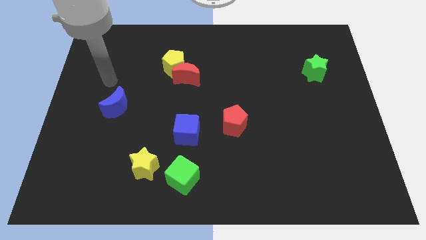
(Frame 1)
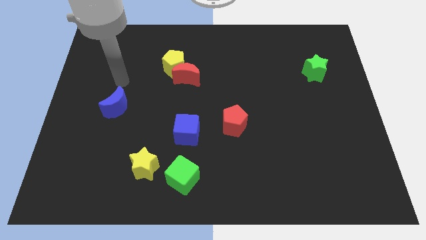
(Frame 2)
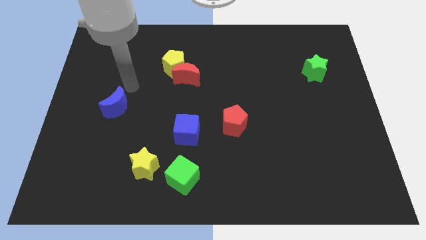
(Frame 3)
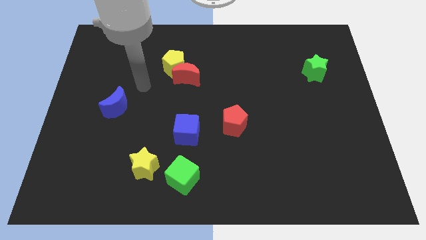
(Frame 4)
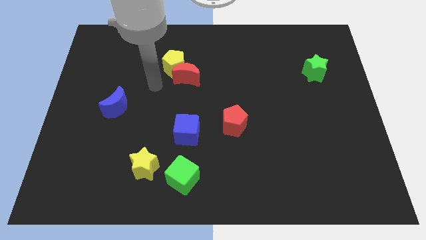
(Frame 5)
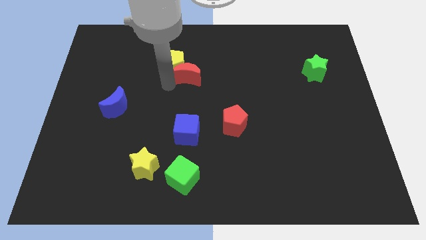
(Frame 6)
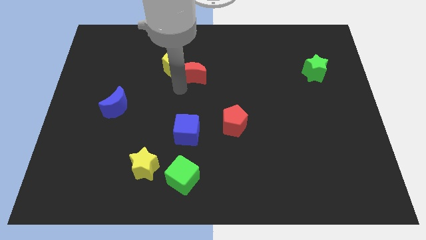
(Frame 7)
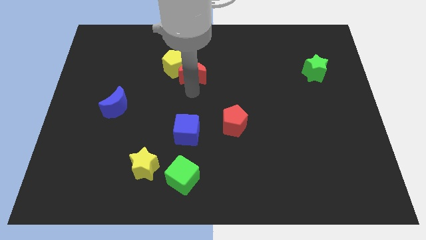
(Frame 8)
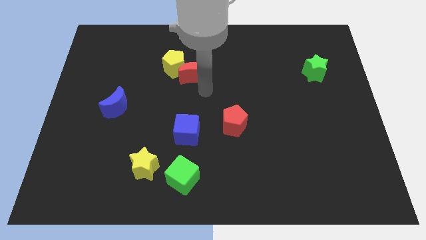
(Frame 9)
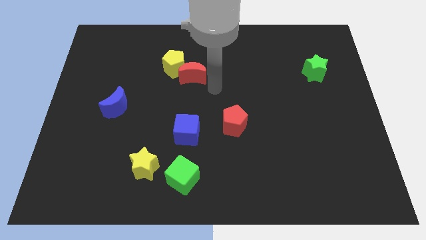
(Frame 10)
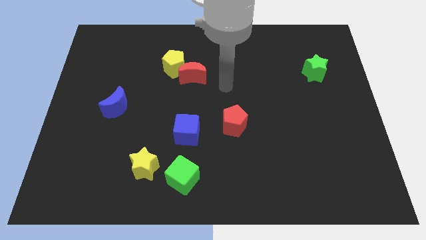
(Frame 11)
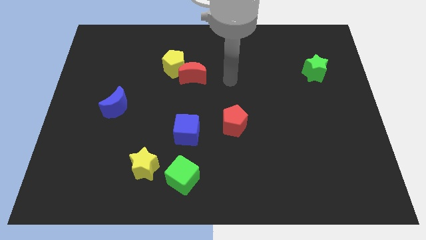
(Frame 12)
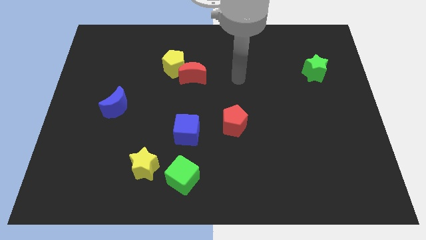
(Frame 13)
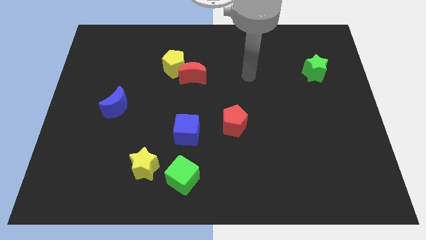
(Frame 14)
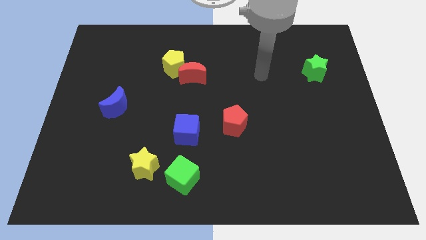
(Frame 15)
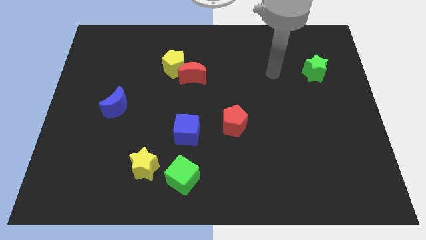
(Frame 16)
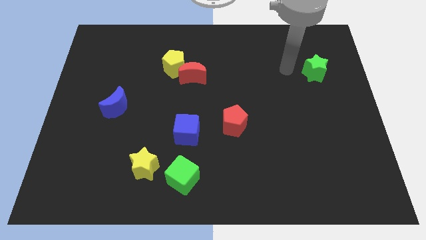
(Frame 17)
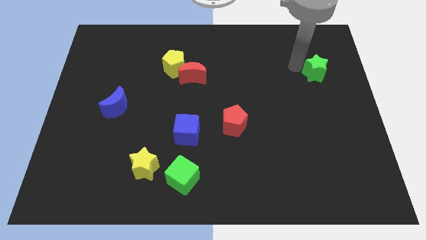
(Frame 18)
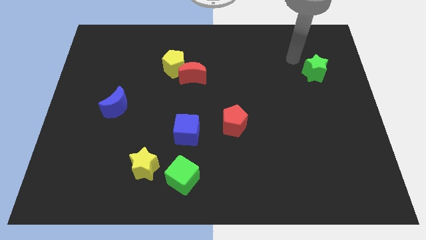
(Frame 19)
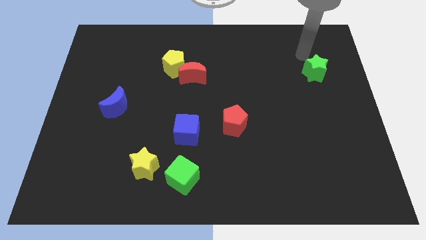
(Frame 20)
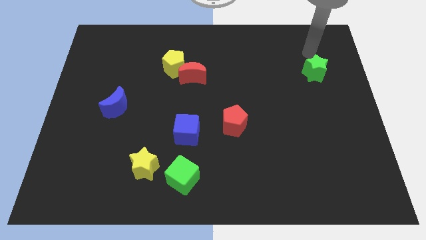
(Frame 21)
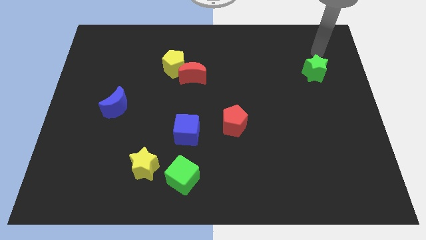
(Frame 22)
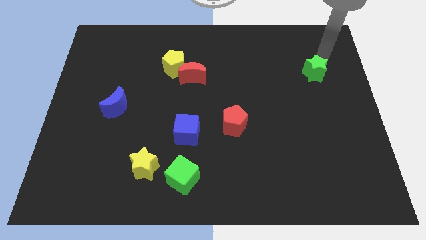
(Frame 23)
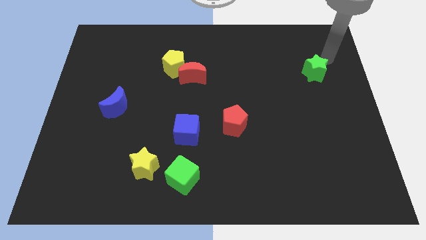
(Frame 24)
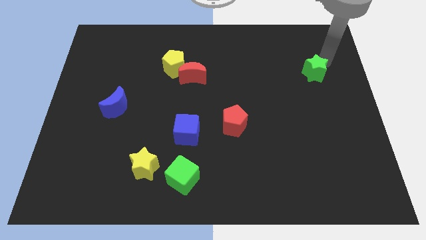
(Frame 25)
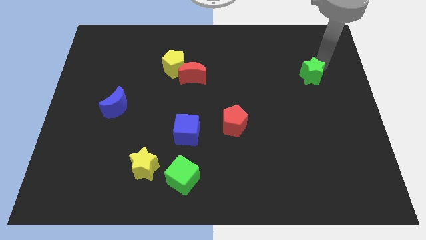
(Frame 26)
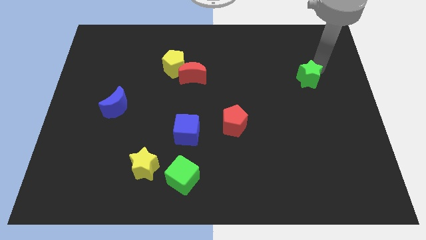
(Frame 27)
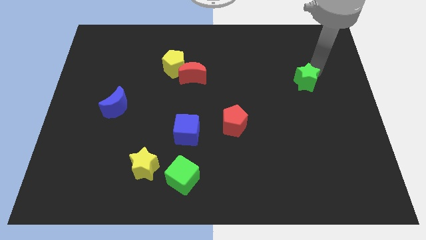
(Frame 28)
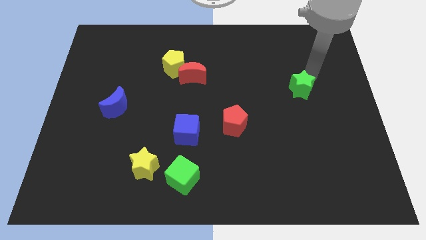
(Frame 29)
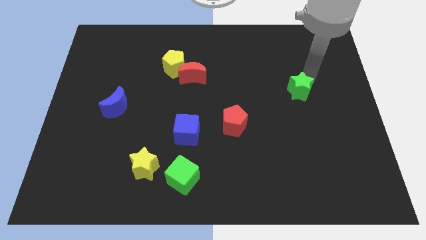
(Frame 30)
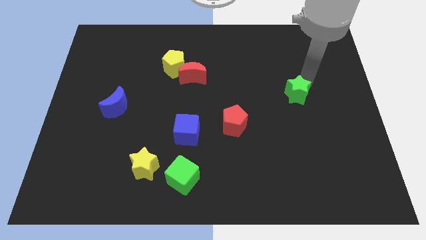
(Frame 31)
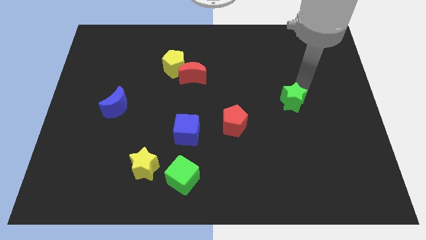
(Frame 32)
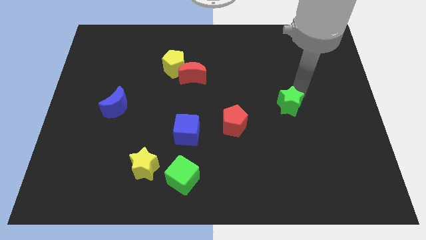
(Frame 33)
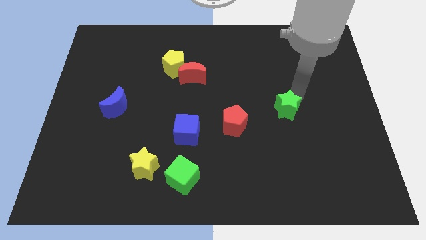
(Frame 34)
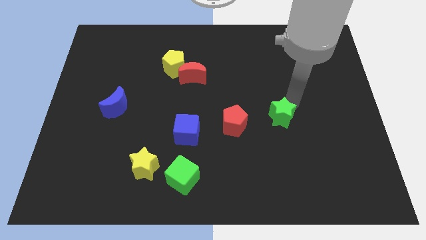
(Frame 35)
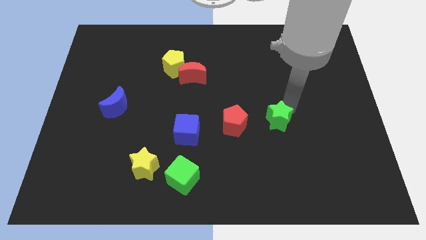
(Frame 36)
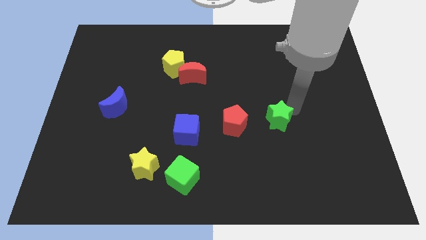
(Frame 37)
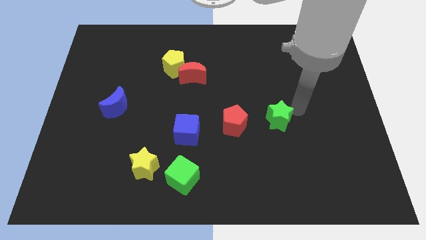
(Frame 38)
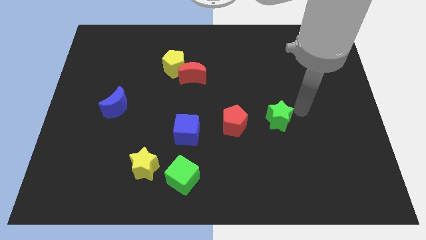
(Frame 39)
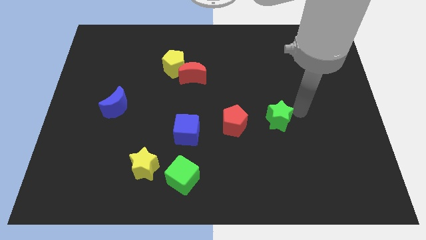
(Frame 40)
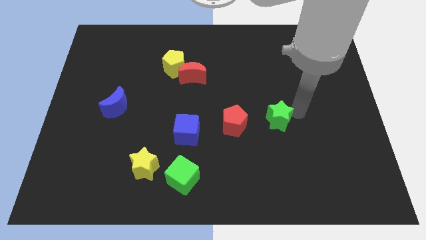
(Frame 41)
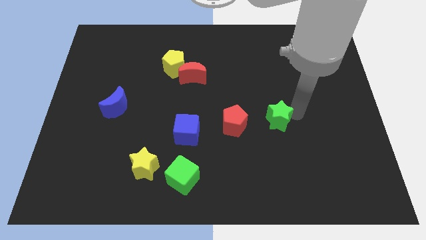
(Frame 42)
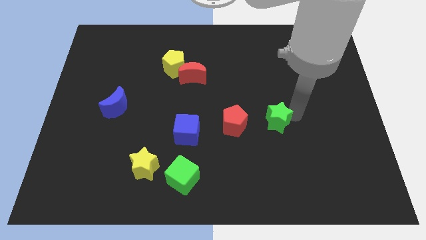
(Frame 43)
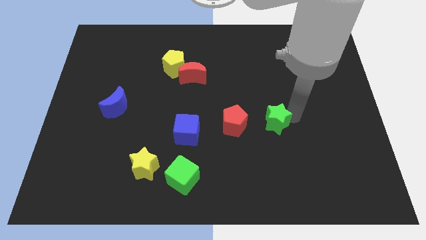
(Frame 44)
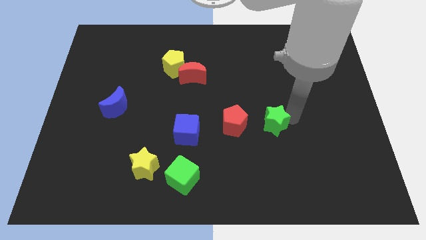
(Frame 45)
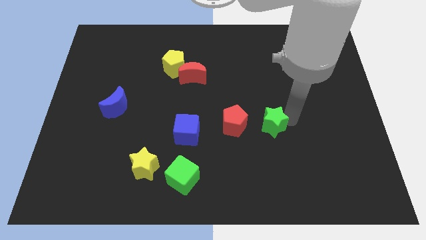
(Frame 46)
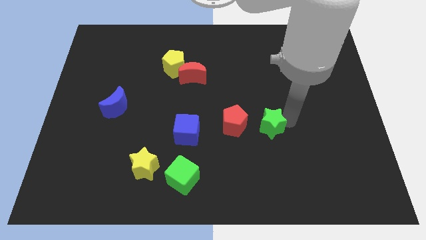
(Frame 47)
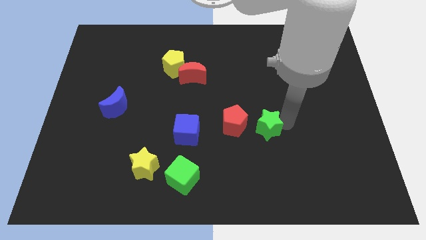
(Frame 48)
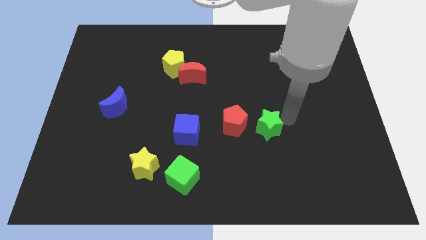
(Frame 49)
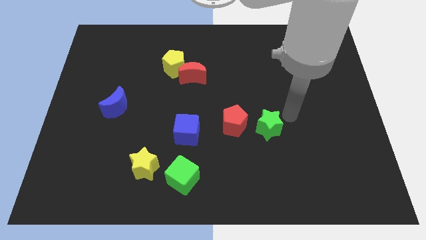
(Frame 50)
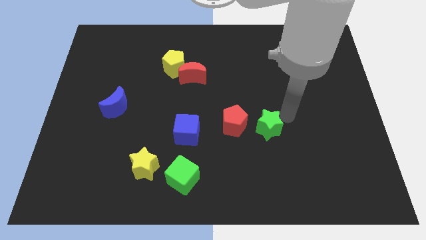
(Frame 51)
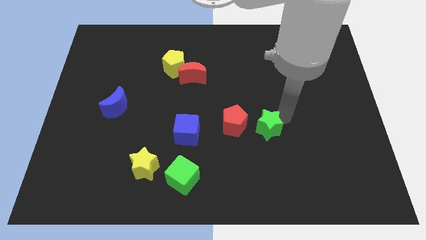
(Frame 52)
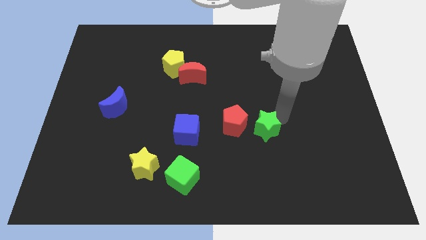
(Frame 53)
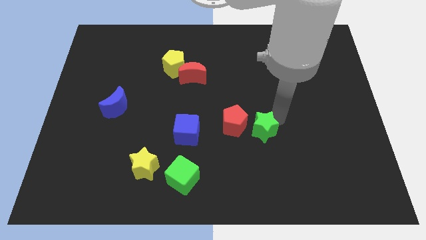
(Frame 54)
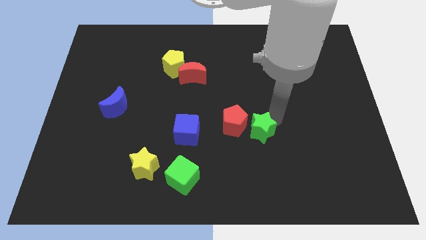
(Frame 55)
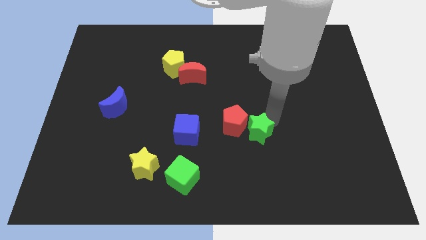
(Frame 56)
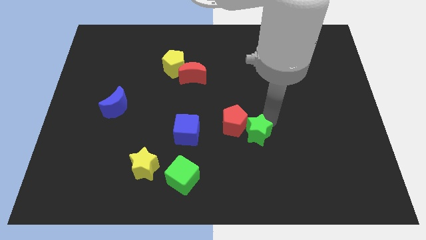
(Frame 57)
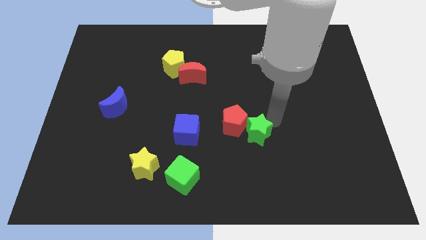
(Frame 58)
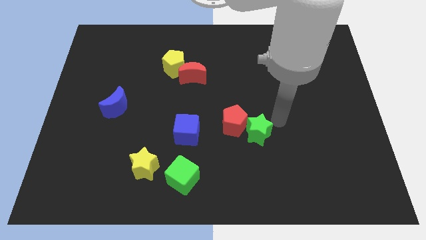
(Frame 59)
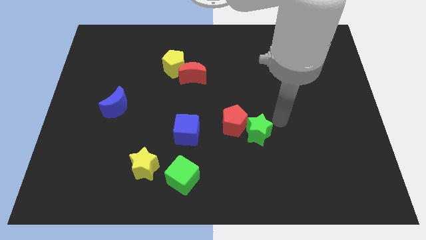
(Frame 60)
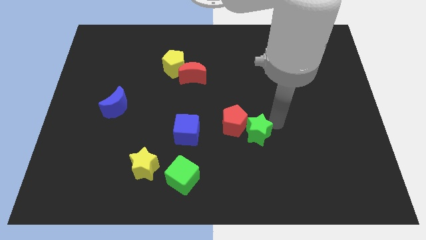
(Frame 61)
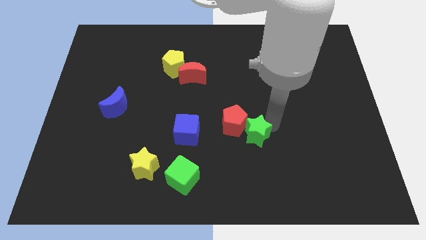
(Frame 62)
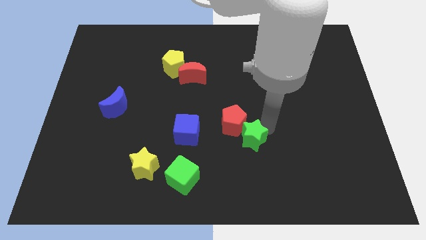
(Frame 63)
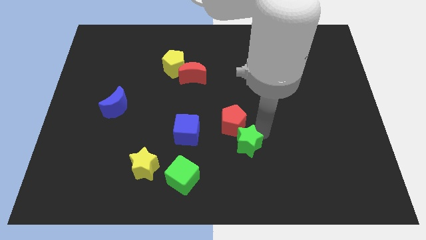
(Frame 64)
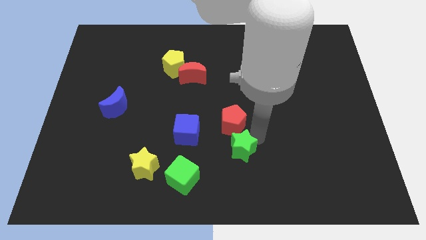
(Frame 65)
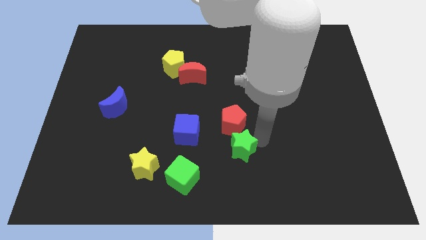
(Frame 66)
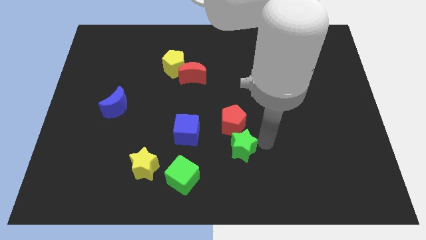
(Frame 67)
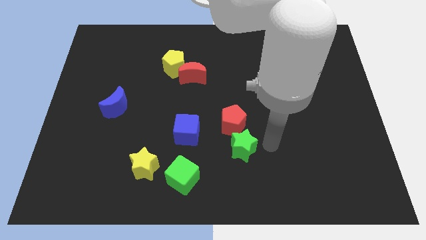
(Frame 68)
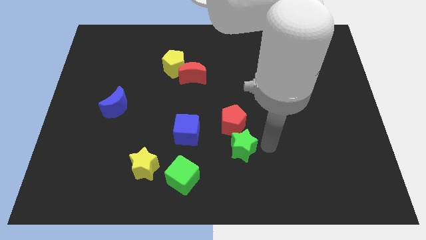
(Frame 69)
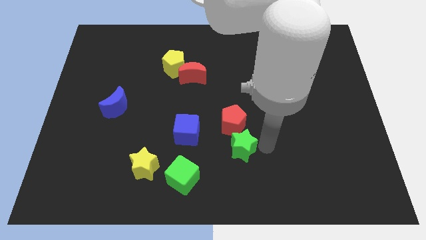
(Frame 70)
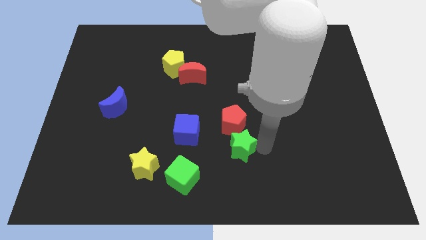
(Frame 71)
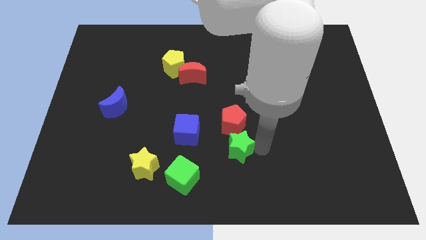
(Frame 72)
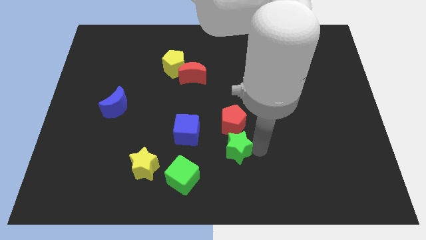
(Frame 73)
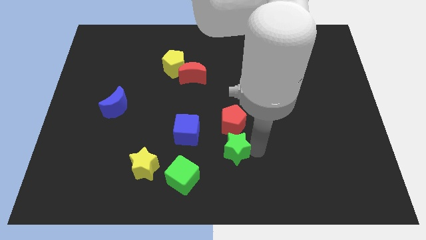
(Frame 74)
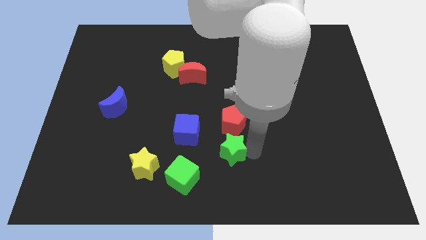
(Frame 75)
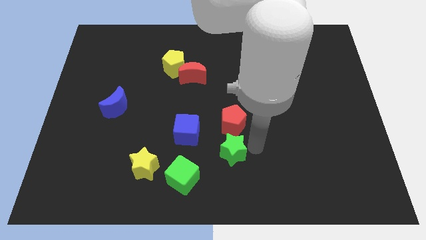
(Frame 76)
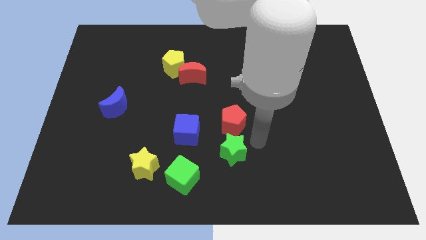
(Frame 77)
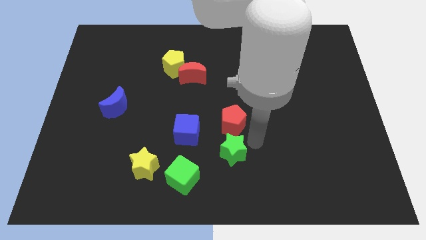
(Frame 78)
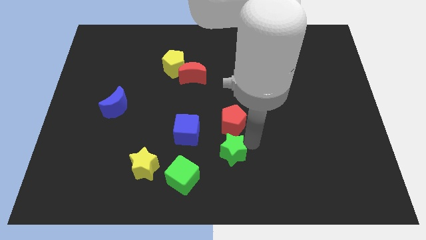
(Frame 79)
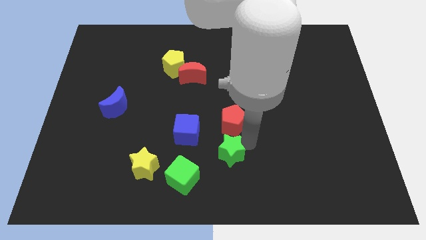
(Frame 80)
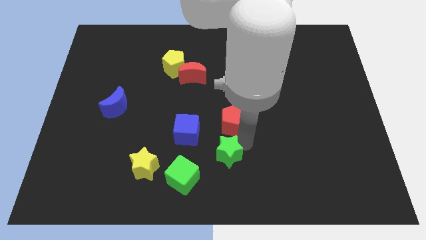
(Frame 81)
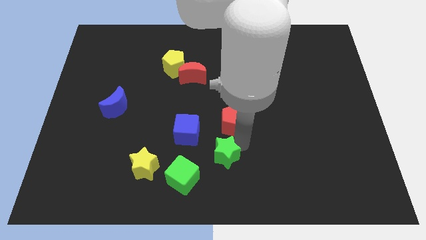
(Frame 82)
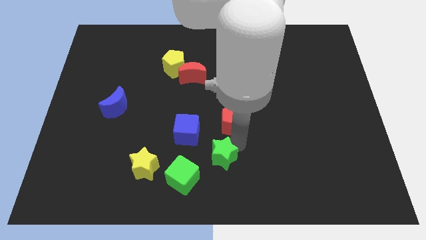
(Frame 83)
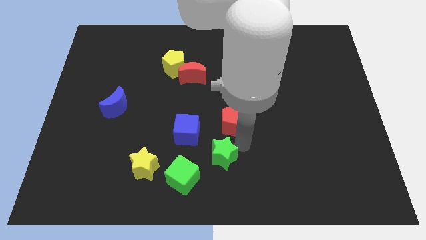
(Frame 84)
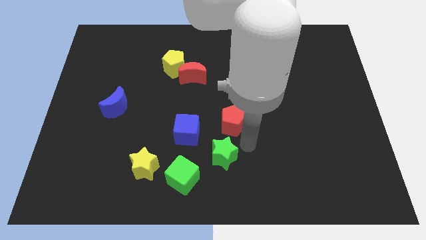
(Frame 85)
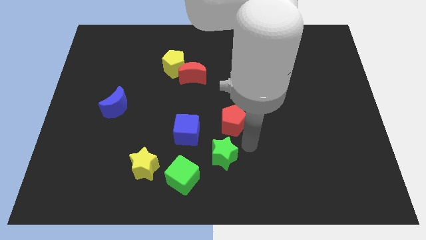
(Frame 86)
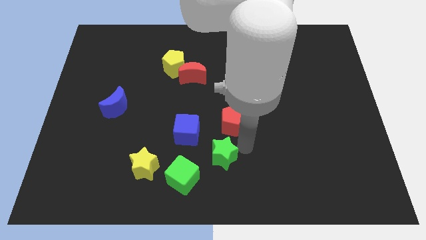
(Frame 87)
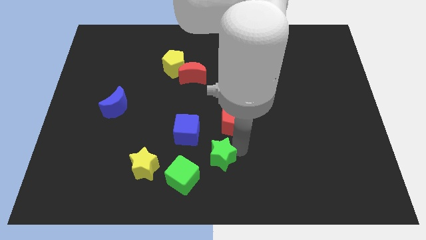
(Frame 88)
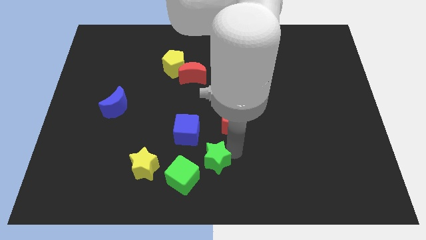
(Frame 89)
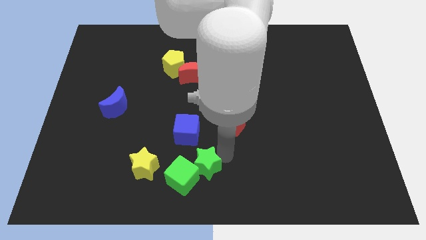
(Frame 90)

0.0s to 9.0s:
move the green star next to the green cube
